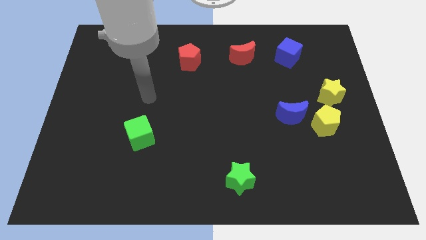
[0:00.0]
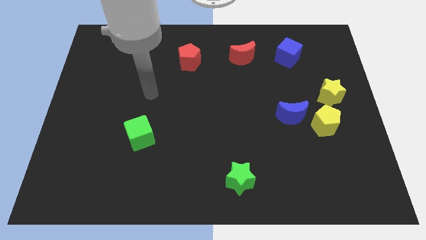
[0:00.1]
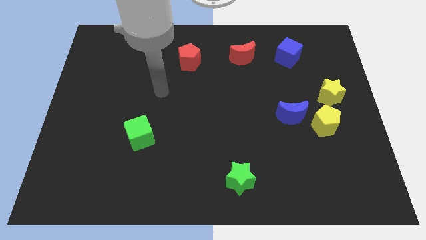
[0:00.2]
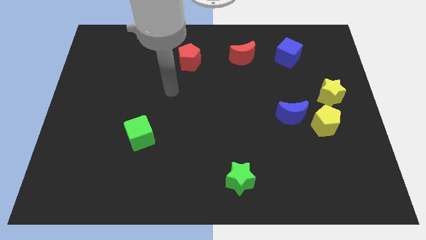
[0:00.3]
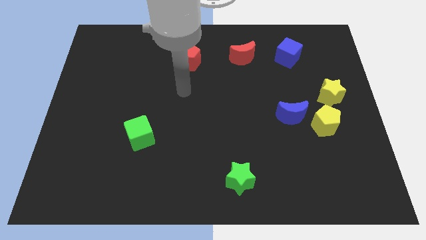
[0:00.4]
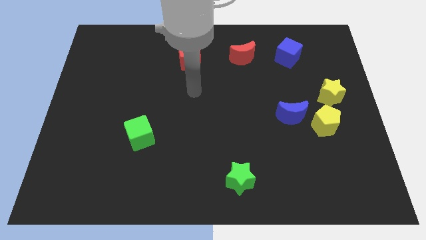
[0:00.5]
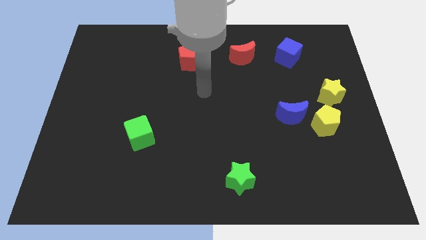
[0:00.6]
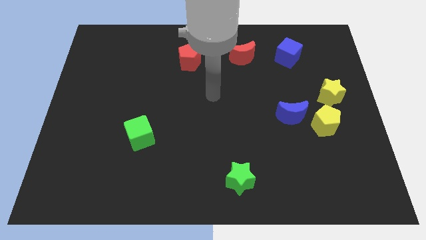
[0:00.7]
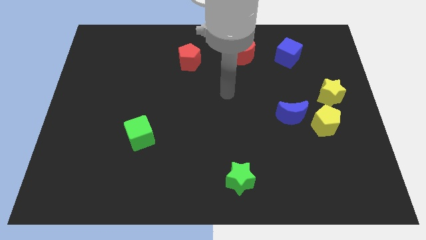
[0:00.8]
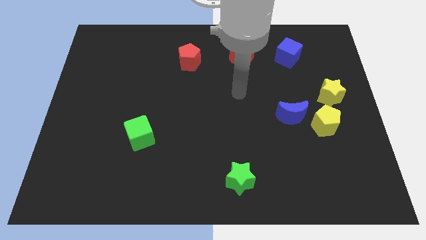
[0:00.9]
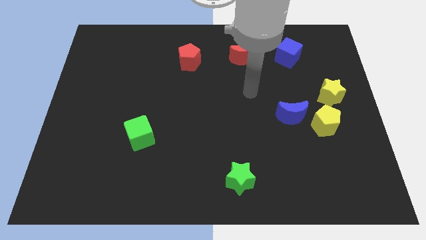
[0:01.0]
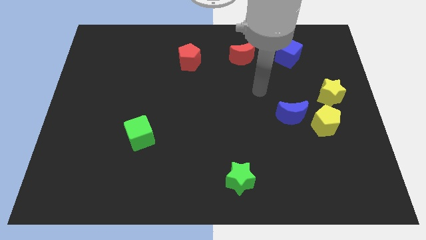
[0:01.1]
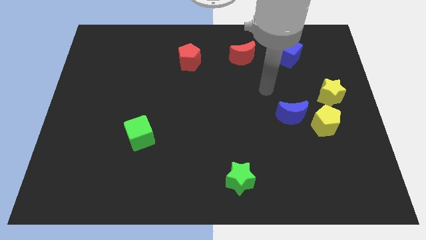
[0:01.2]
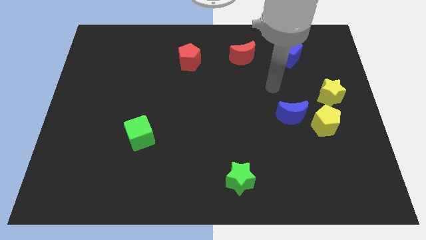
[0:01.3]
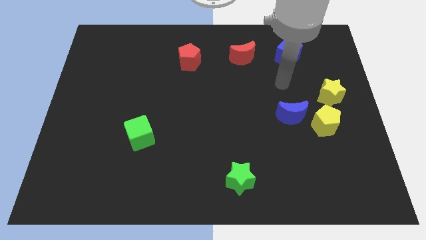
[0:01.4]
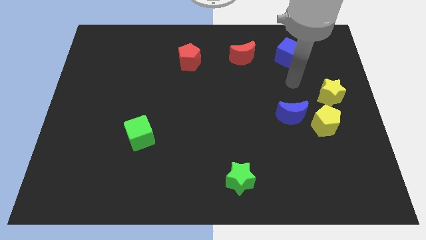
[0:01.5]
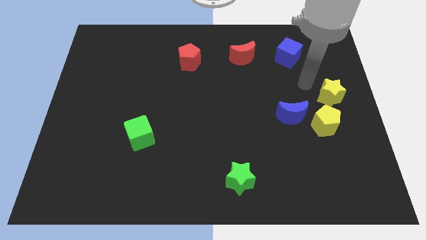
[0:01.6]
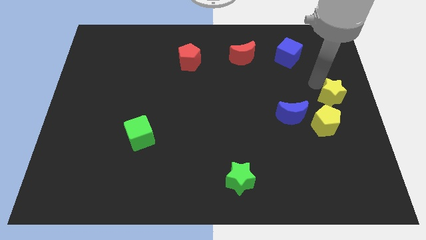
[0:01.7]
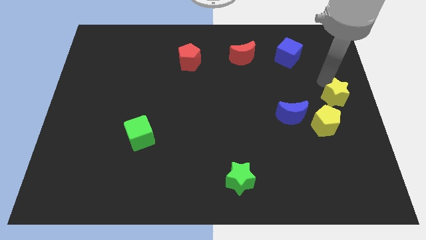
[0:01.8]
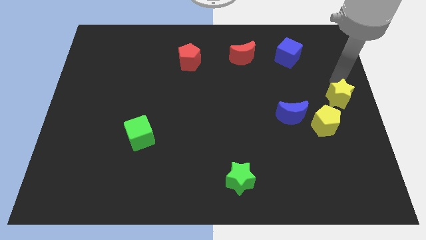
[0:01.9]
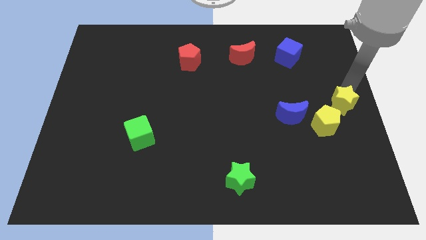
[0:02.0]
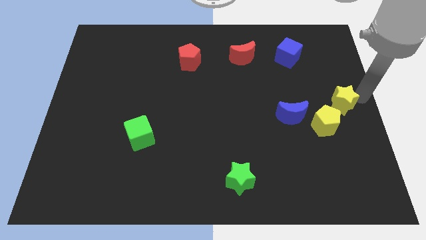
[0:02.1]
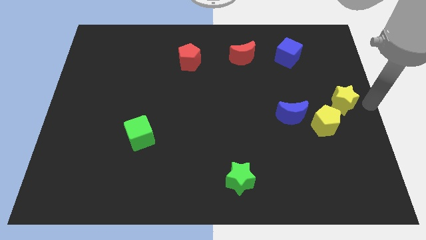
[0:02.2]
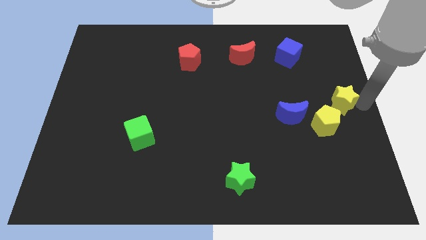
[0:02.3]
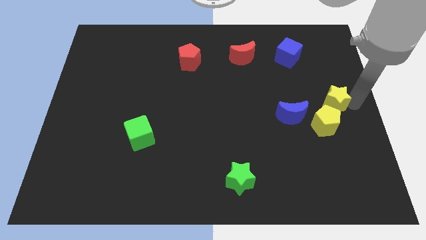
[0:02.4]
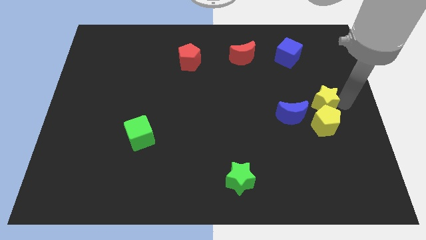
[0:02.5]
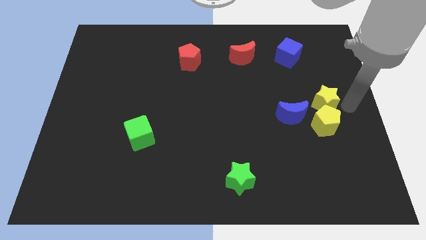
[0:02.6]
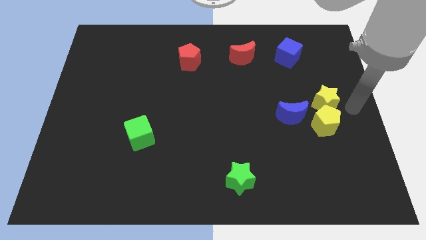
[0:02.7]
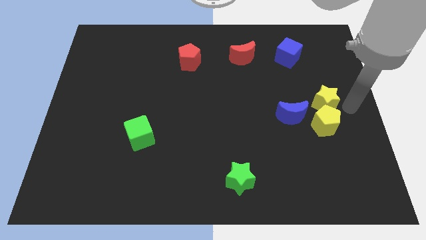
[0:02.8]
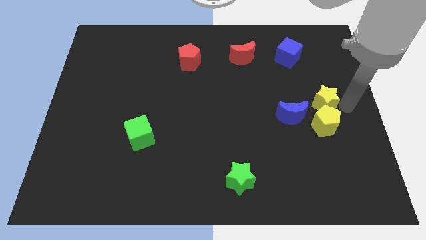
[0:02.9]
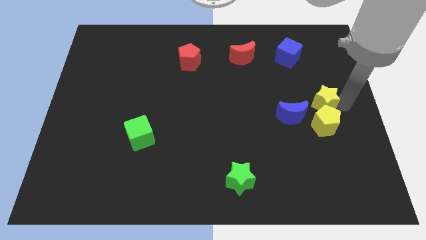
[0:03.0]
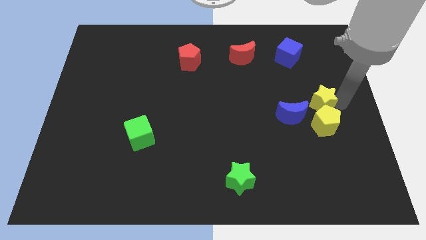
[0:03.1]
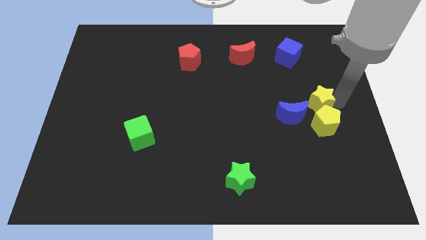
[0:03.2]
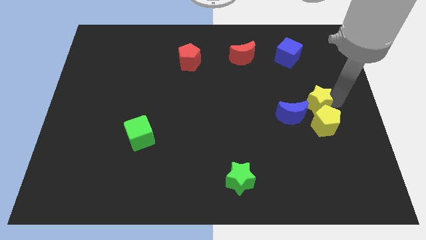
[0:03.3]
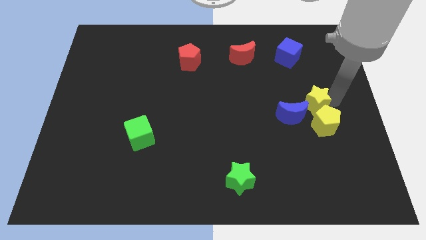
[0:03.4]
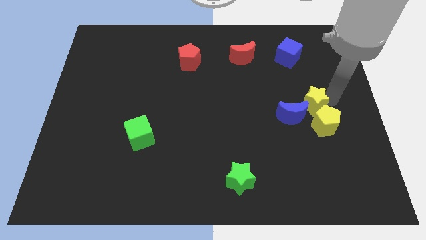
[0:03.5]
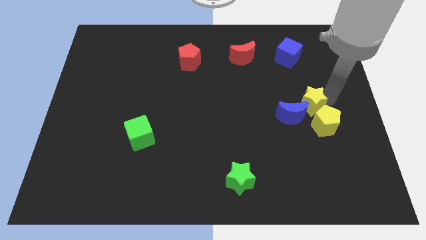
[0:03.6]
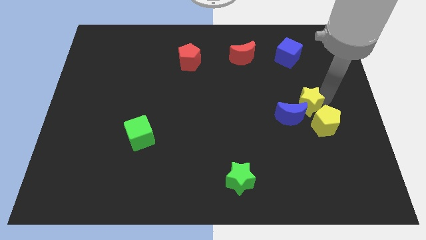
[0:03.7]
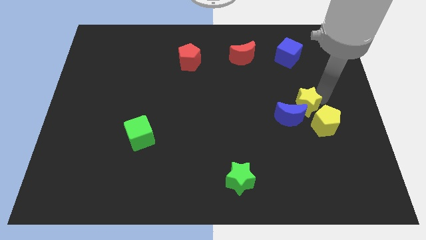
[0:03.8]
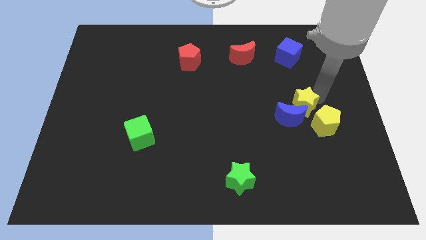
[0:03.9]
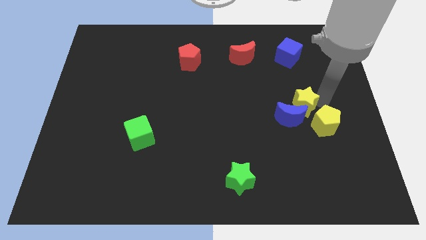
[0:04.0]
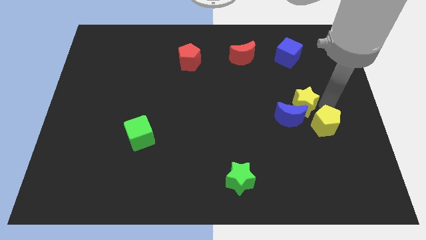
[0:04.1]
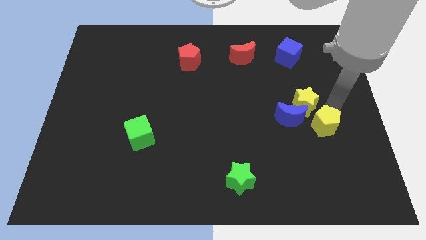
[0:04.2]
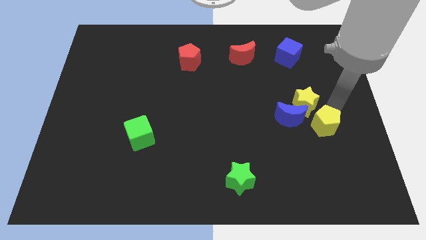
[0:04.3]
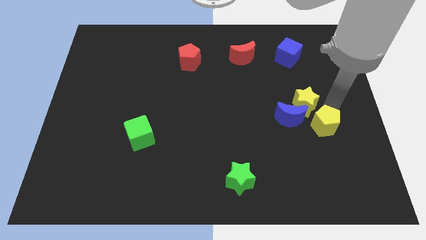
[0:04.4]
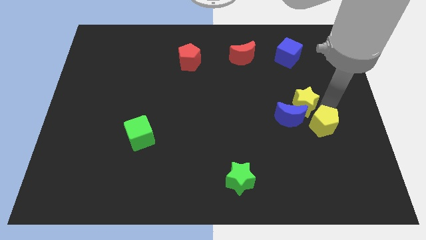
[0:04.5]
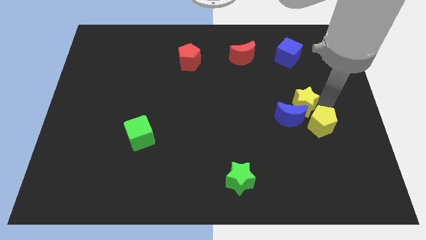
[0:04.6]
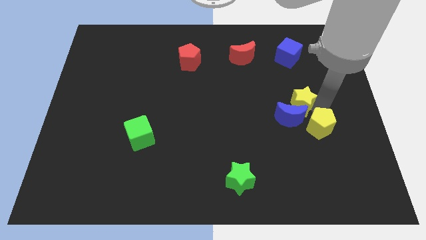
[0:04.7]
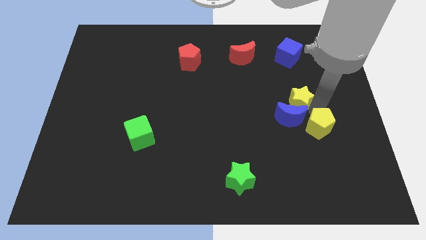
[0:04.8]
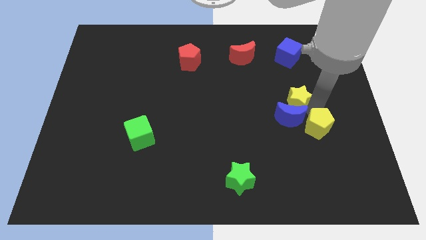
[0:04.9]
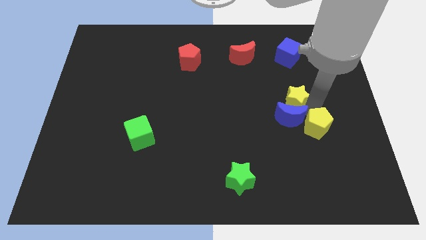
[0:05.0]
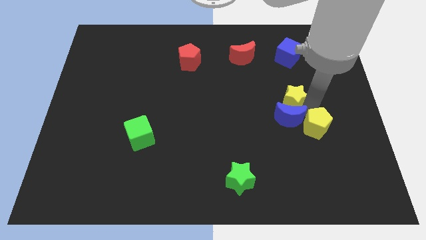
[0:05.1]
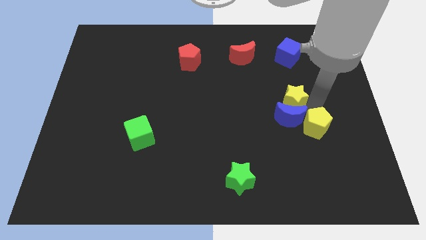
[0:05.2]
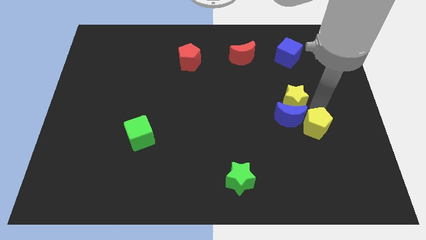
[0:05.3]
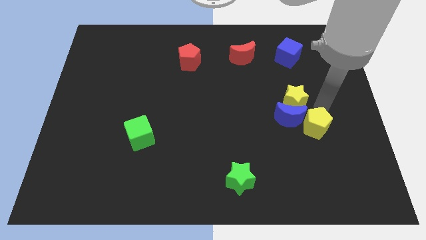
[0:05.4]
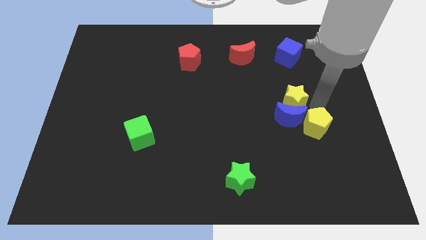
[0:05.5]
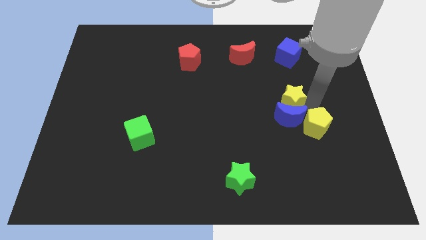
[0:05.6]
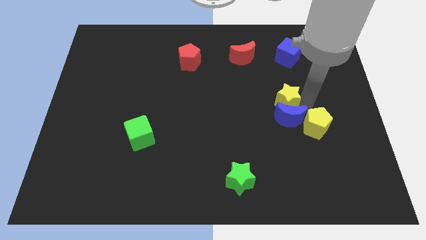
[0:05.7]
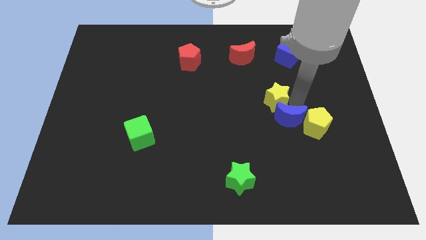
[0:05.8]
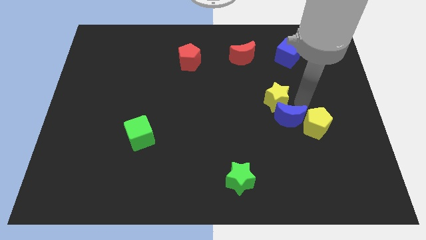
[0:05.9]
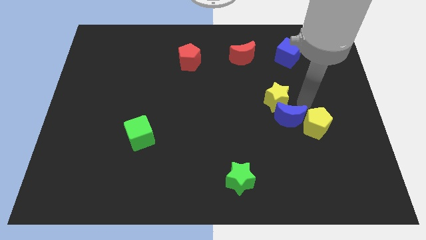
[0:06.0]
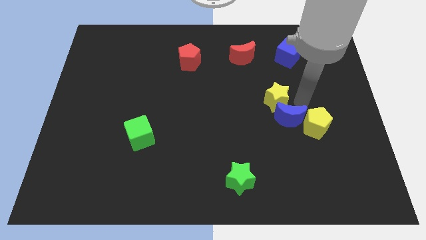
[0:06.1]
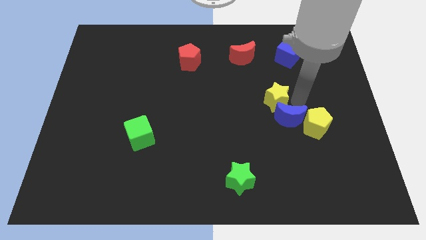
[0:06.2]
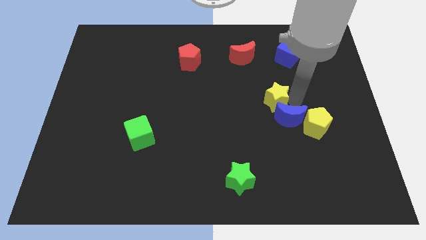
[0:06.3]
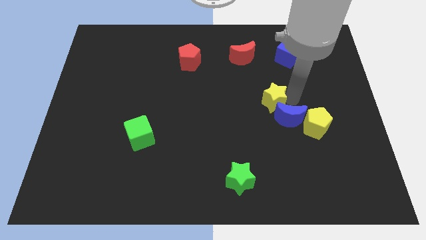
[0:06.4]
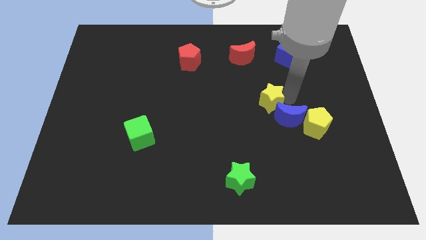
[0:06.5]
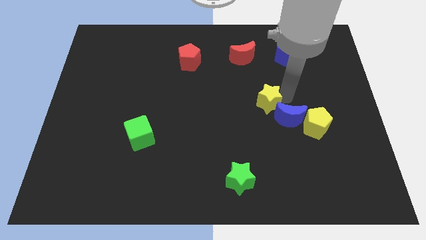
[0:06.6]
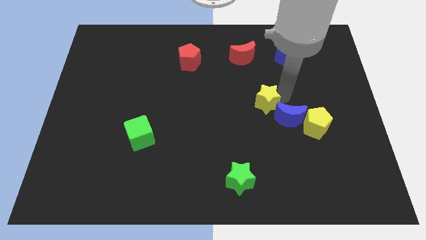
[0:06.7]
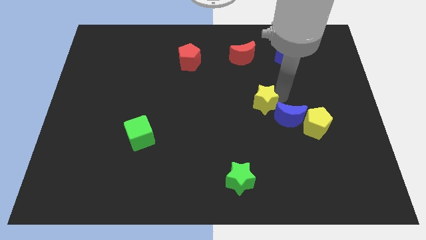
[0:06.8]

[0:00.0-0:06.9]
move the yellow star to the center of the board
